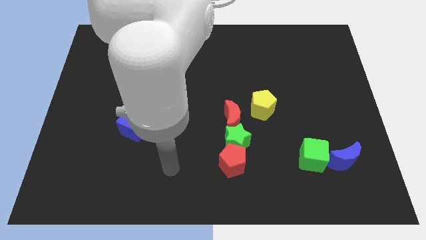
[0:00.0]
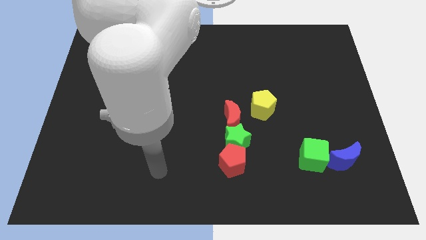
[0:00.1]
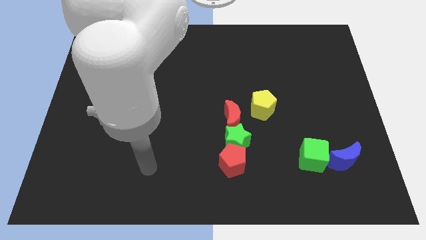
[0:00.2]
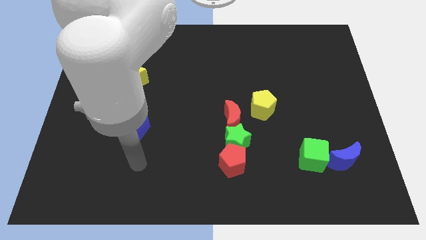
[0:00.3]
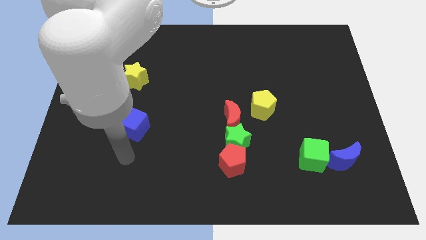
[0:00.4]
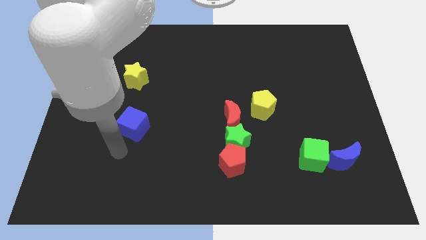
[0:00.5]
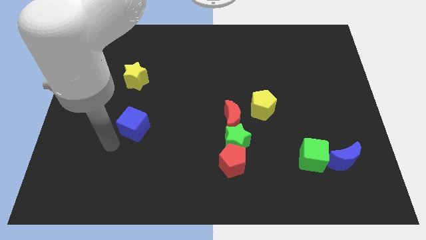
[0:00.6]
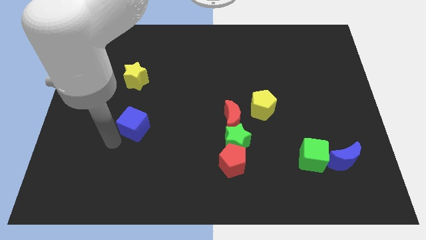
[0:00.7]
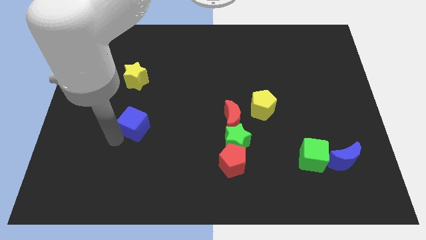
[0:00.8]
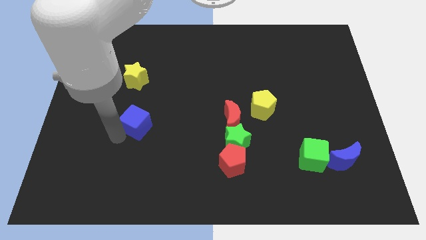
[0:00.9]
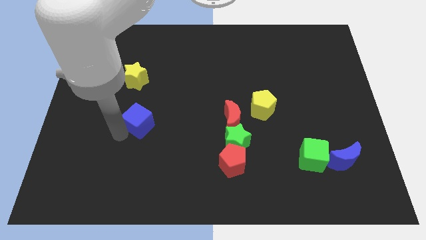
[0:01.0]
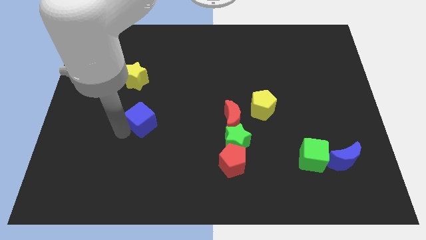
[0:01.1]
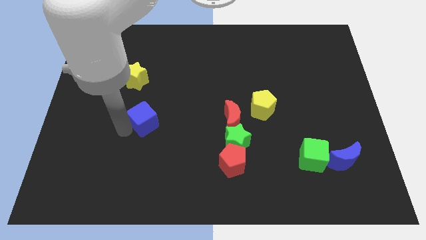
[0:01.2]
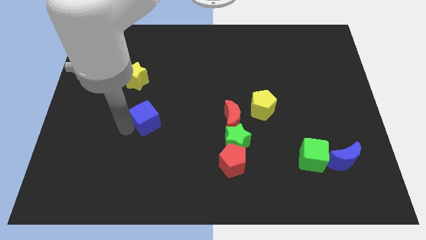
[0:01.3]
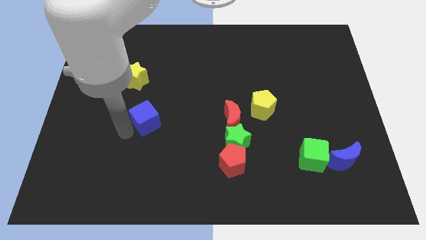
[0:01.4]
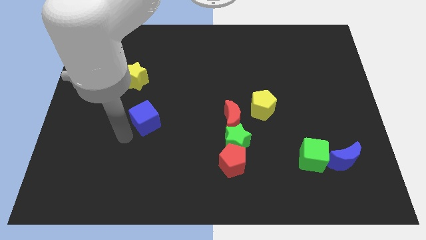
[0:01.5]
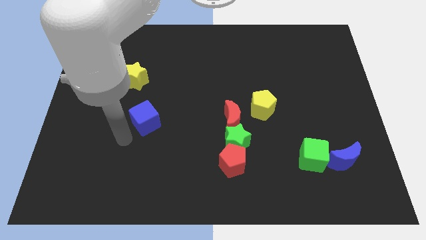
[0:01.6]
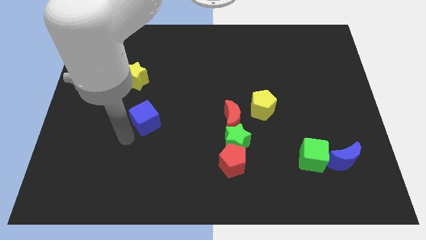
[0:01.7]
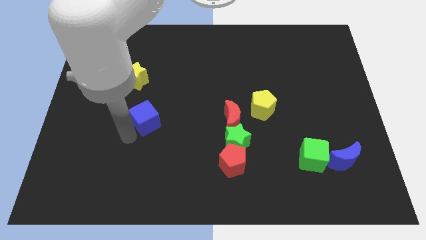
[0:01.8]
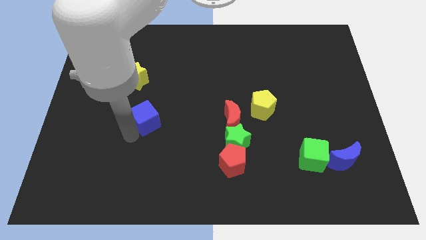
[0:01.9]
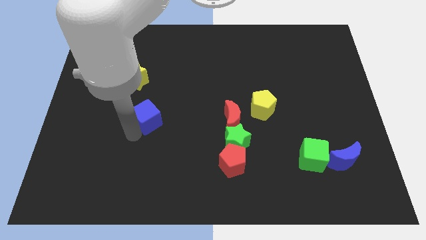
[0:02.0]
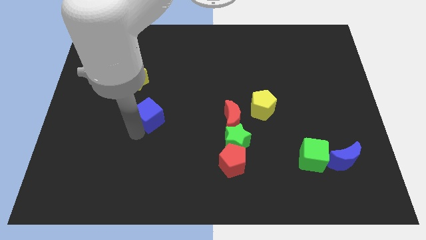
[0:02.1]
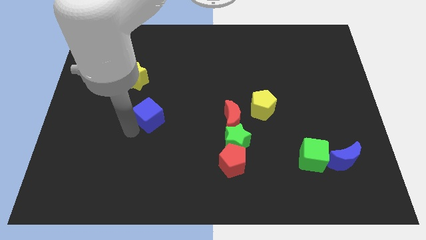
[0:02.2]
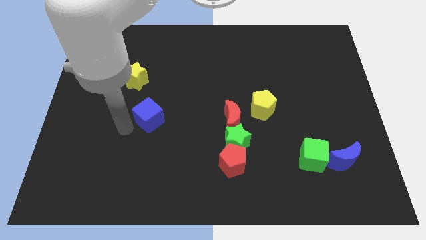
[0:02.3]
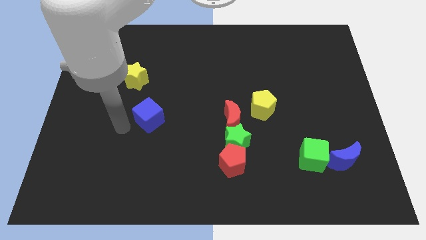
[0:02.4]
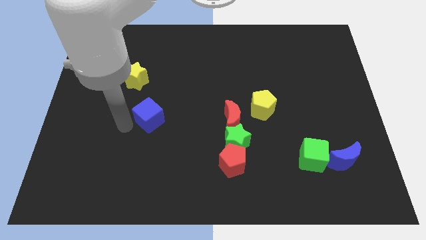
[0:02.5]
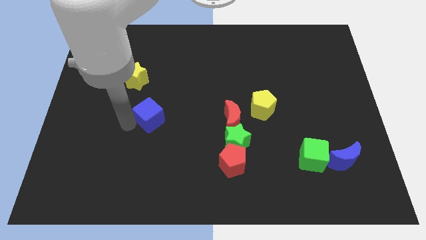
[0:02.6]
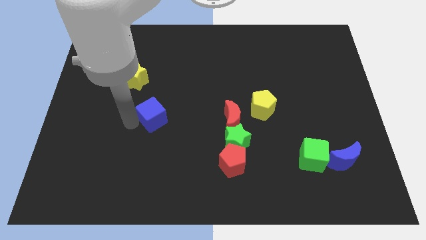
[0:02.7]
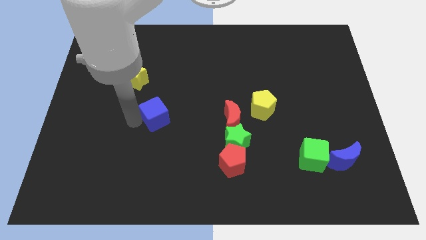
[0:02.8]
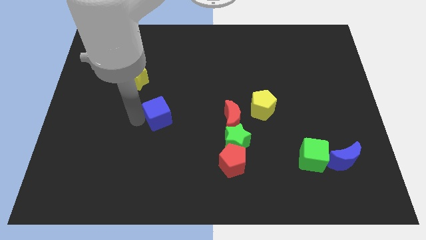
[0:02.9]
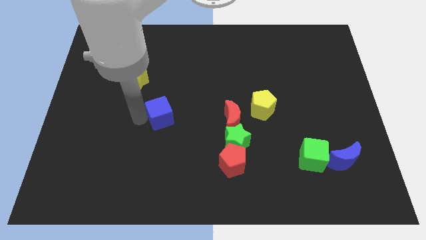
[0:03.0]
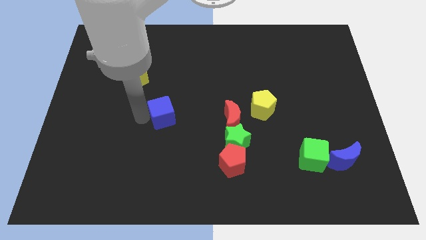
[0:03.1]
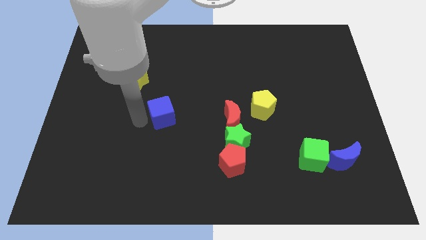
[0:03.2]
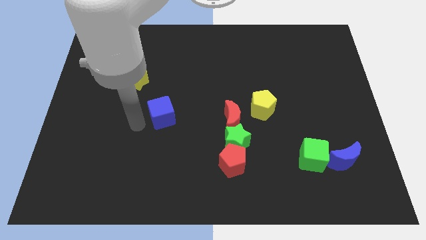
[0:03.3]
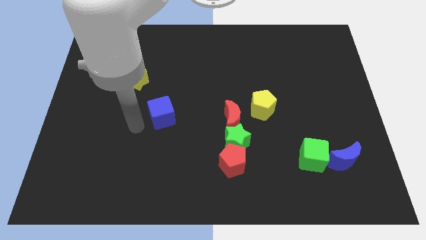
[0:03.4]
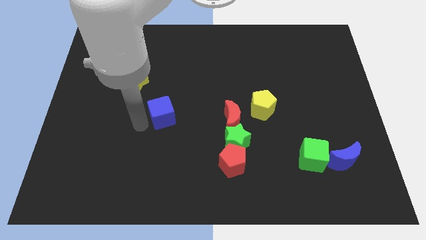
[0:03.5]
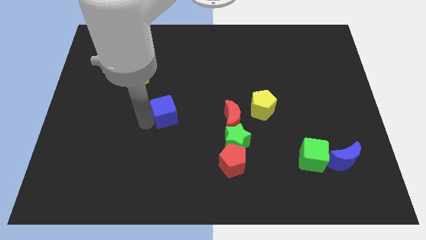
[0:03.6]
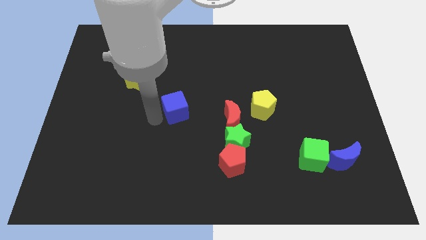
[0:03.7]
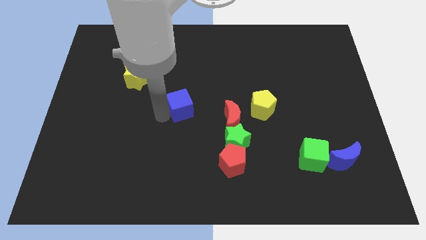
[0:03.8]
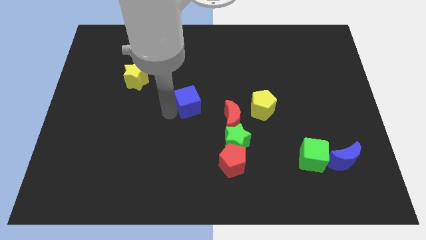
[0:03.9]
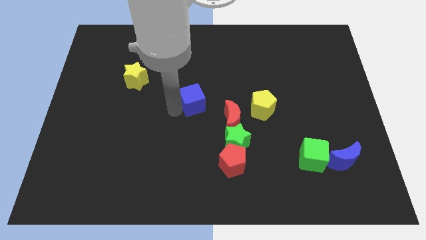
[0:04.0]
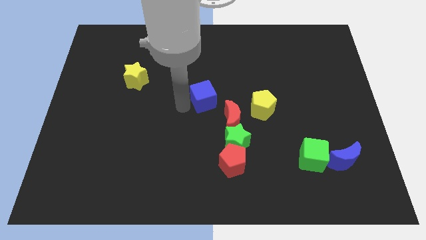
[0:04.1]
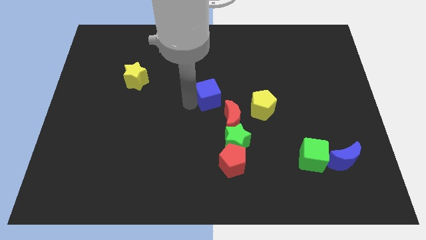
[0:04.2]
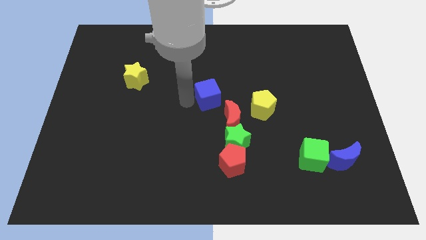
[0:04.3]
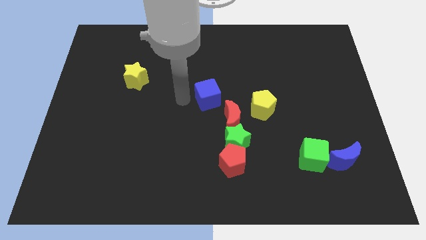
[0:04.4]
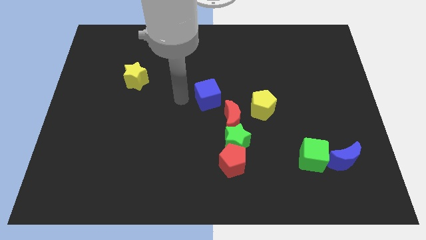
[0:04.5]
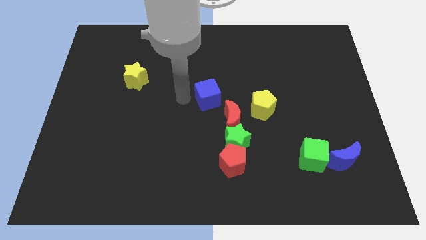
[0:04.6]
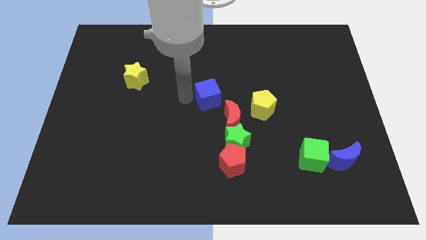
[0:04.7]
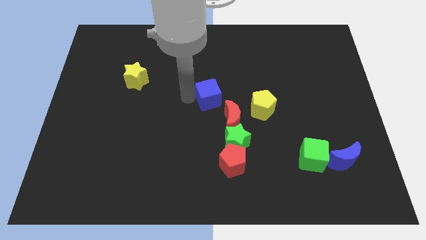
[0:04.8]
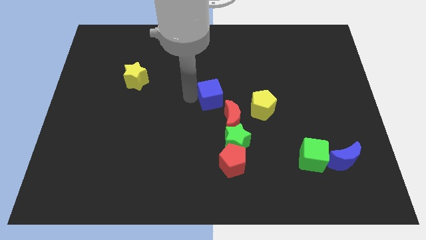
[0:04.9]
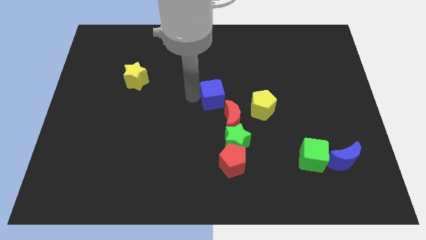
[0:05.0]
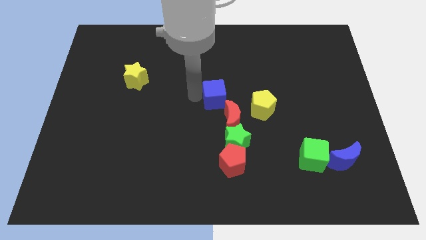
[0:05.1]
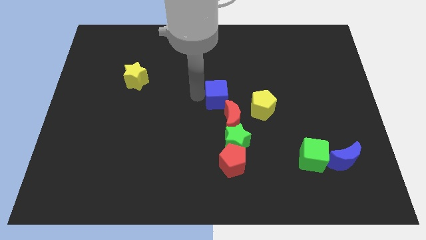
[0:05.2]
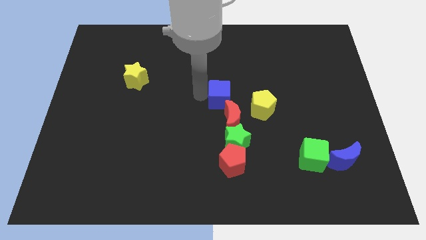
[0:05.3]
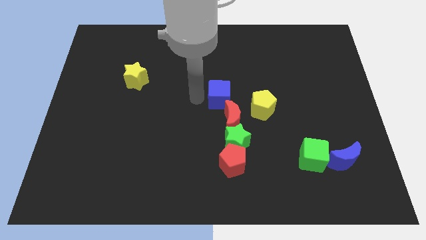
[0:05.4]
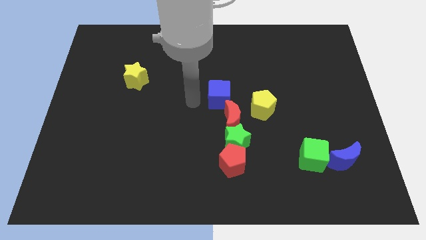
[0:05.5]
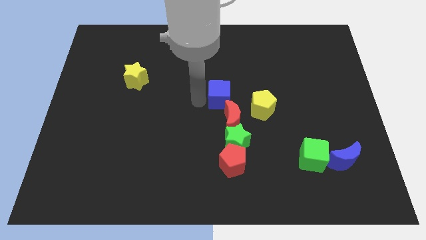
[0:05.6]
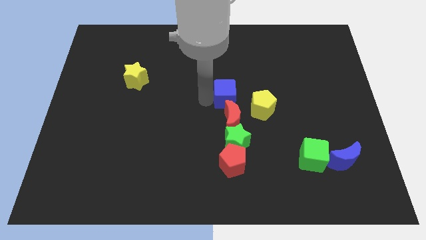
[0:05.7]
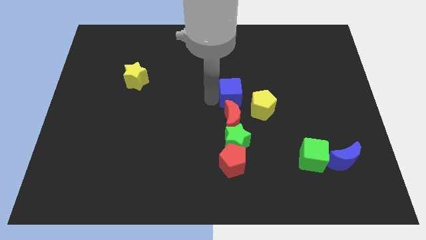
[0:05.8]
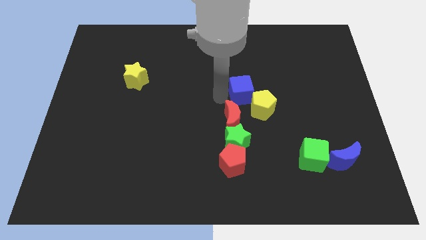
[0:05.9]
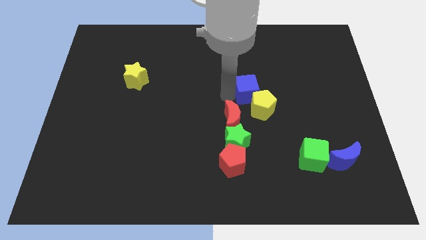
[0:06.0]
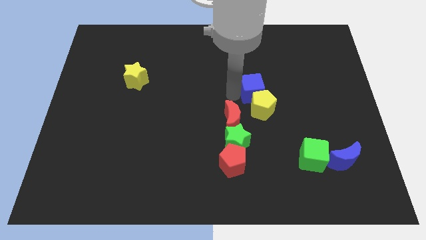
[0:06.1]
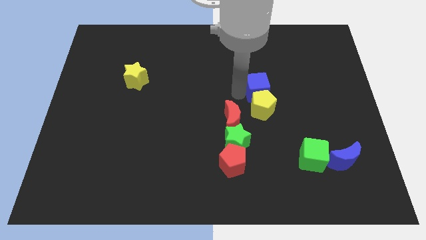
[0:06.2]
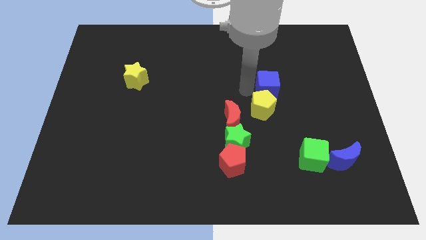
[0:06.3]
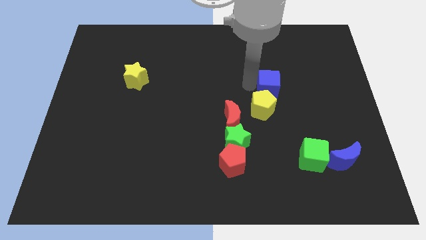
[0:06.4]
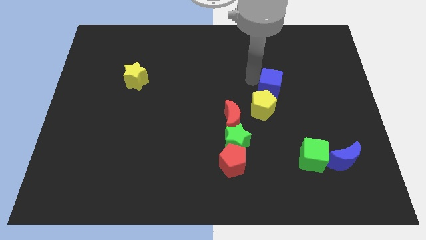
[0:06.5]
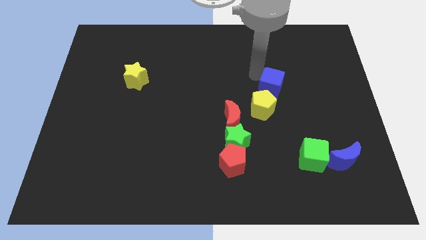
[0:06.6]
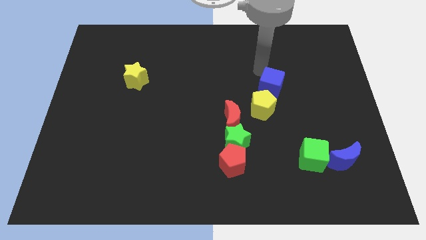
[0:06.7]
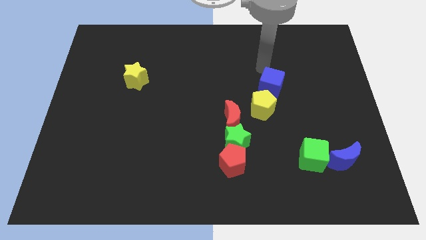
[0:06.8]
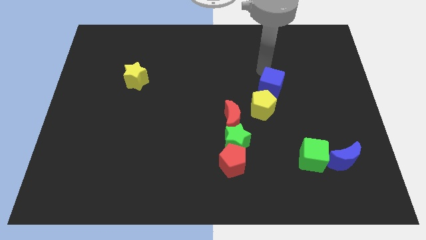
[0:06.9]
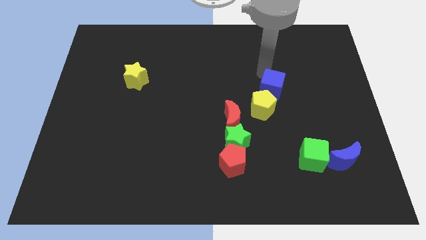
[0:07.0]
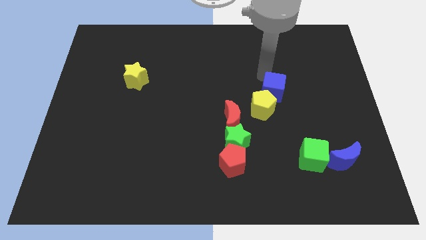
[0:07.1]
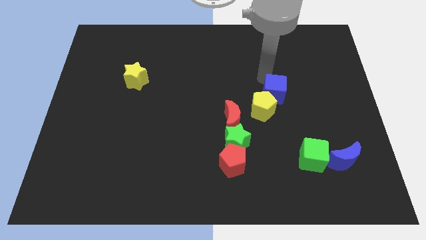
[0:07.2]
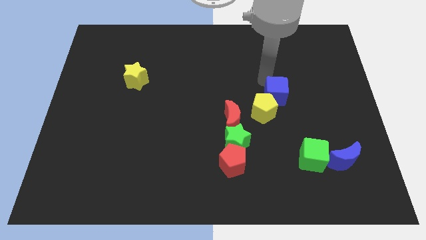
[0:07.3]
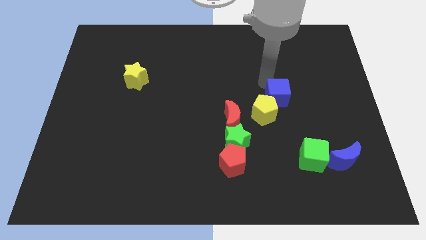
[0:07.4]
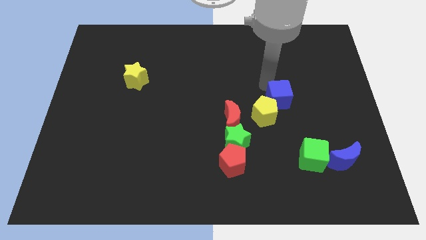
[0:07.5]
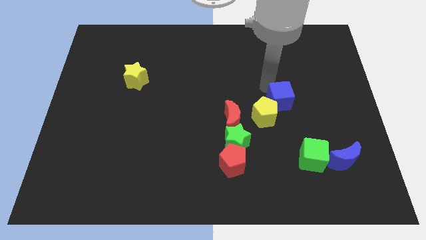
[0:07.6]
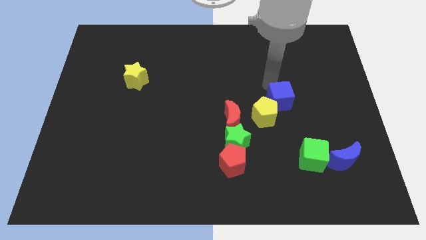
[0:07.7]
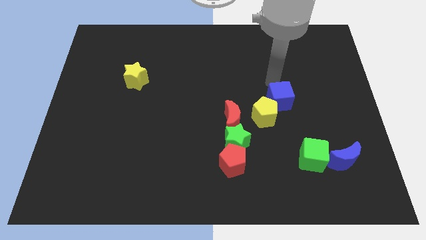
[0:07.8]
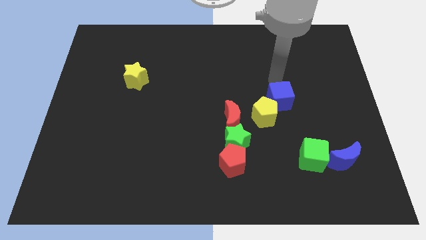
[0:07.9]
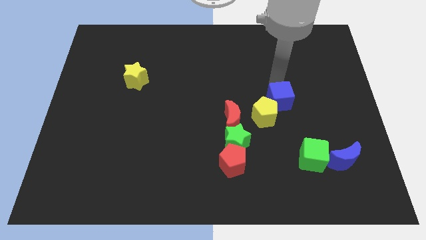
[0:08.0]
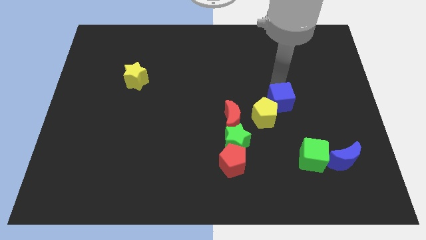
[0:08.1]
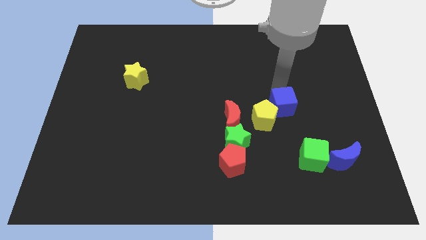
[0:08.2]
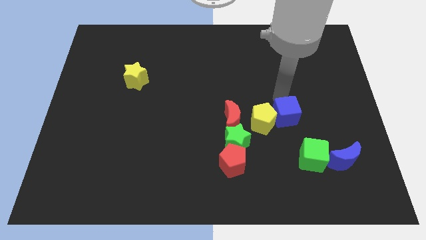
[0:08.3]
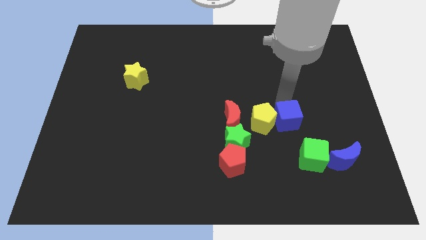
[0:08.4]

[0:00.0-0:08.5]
put the blue cube diagonally down and to the right of the yellow pentagon
